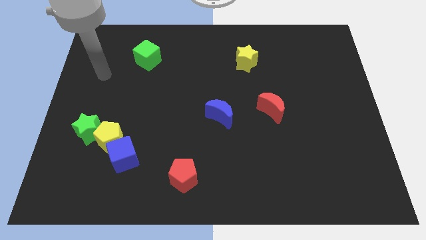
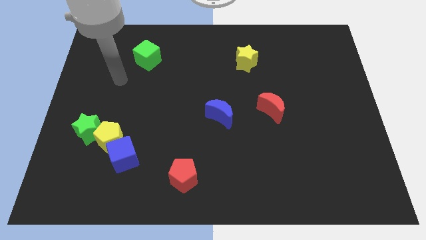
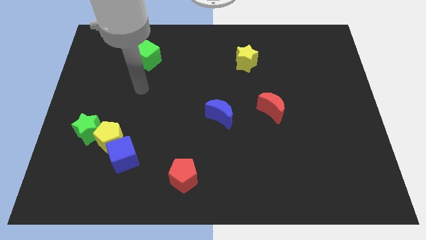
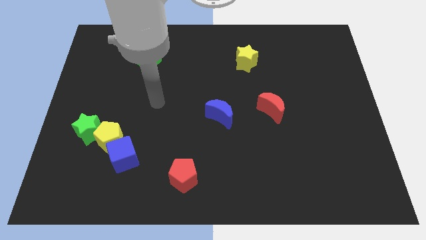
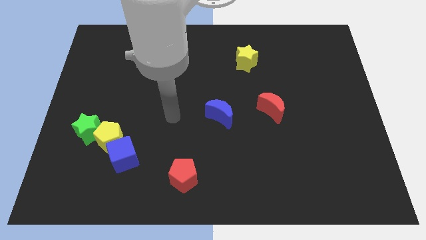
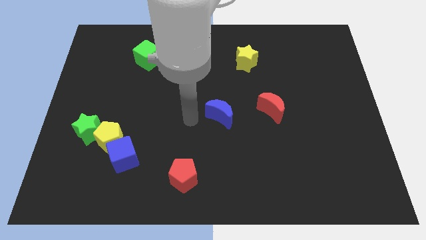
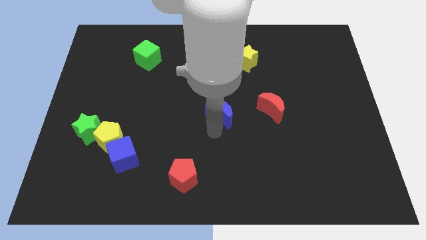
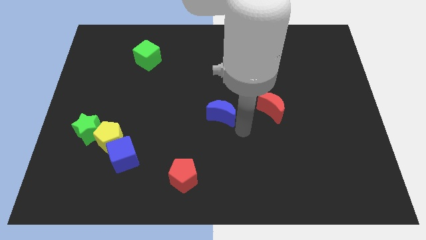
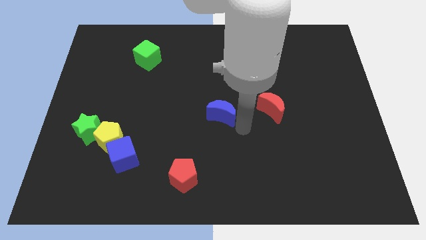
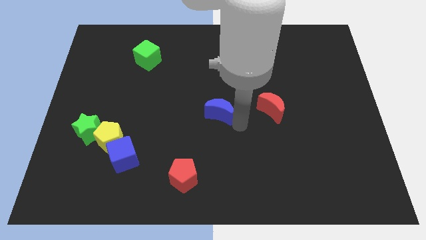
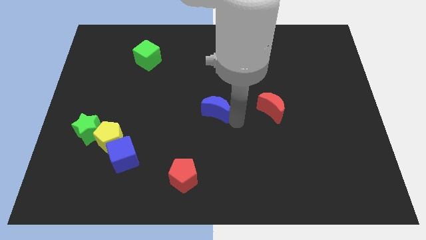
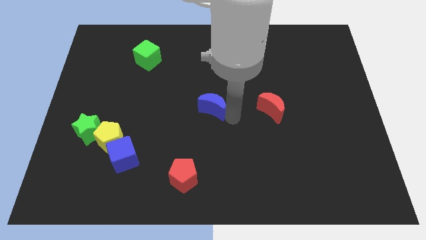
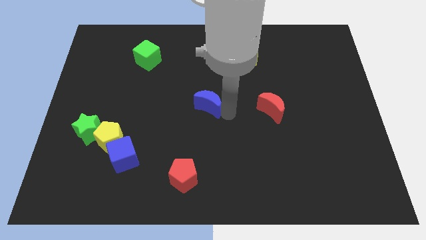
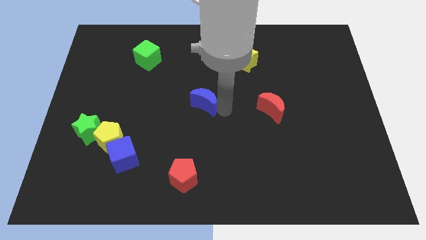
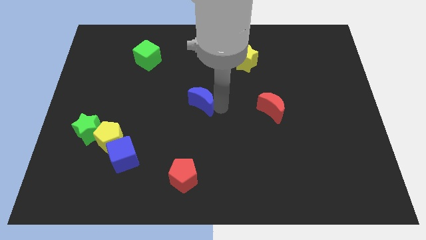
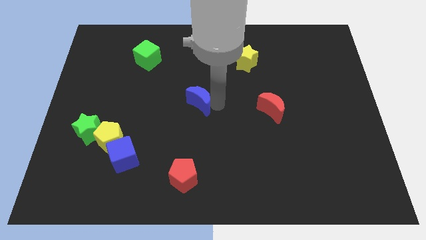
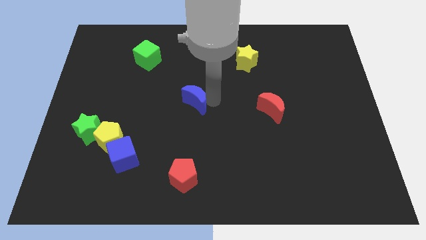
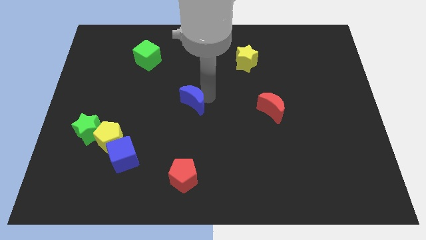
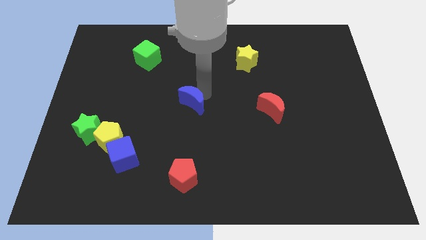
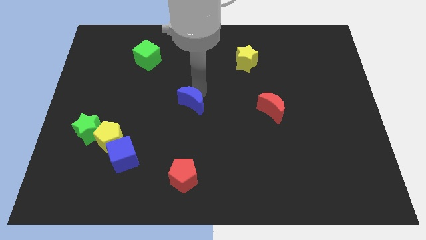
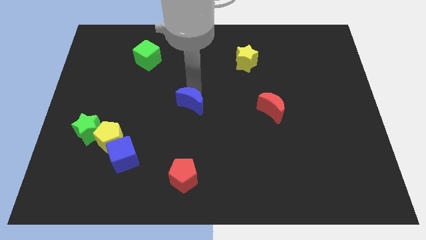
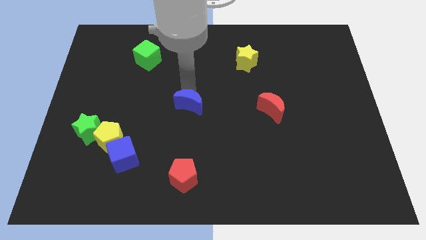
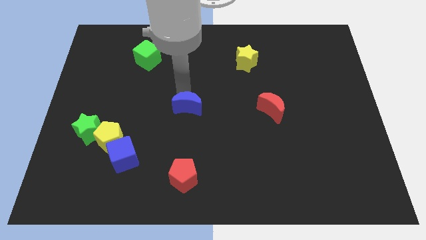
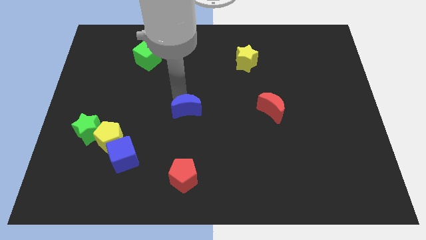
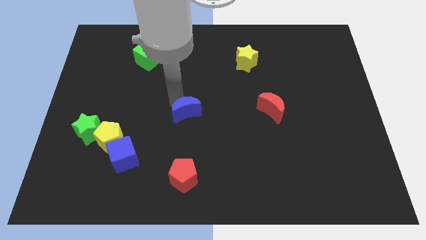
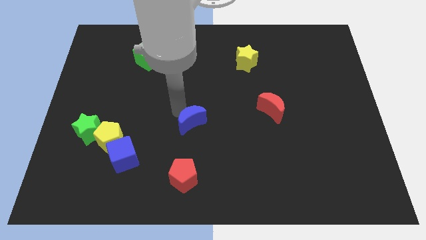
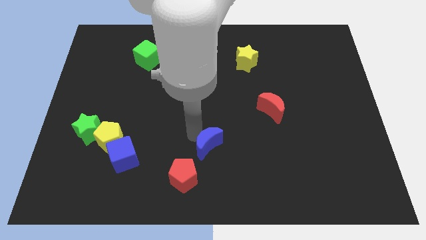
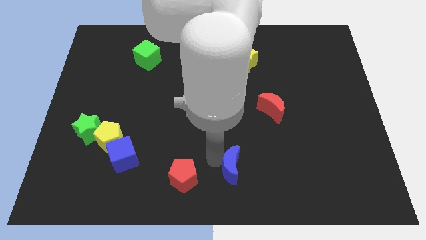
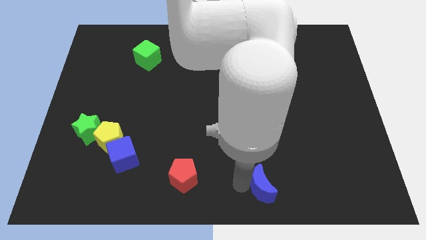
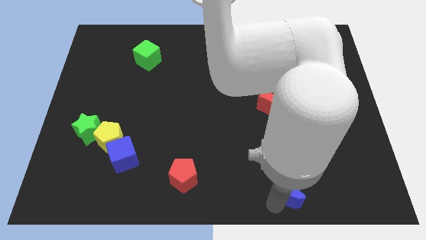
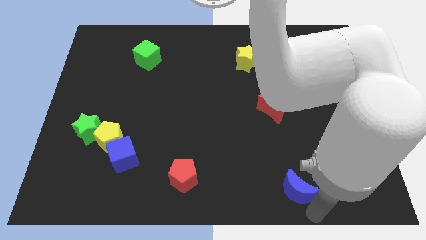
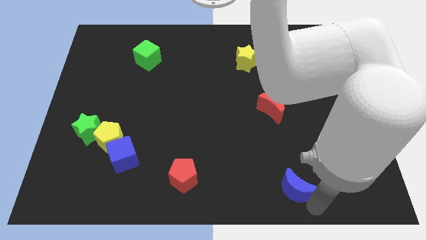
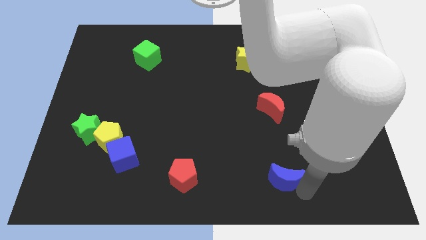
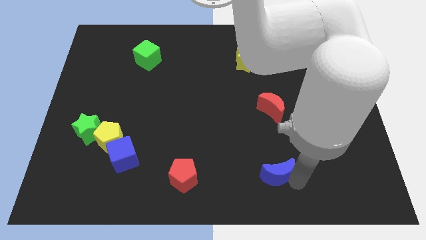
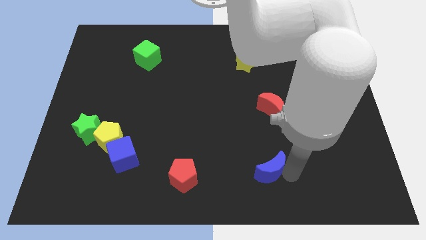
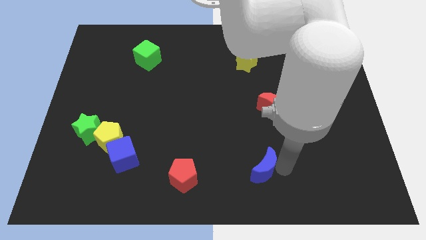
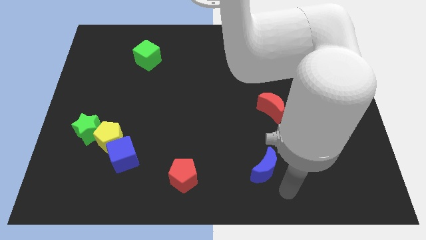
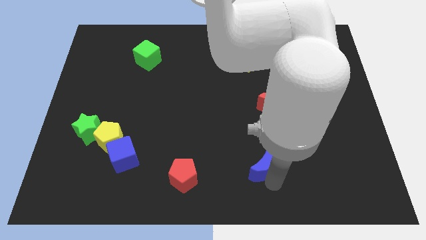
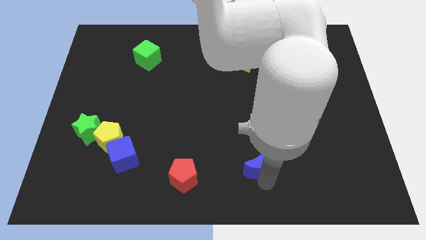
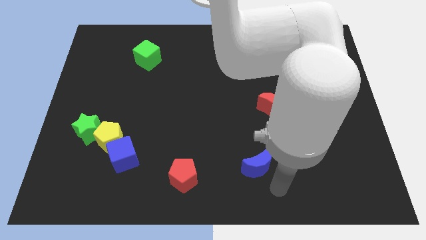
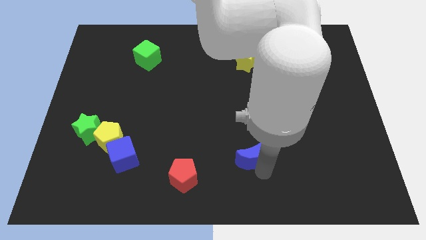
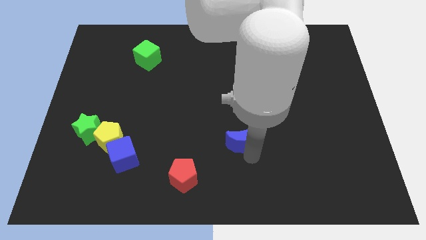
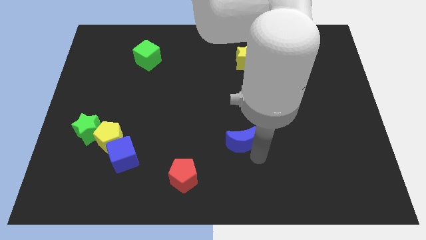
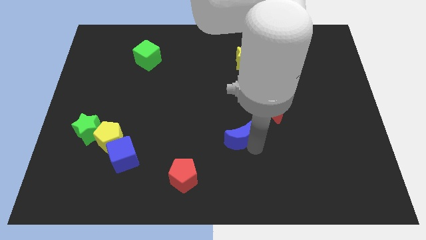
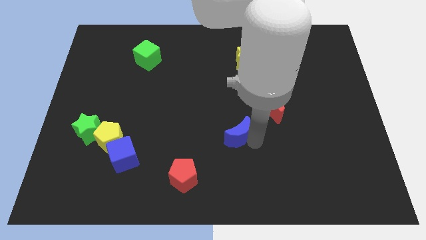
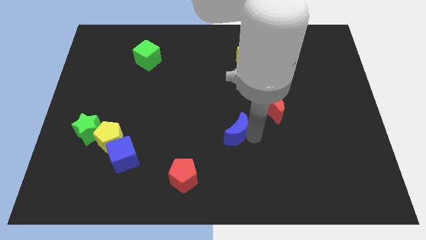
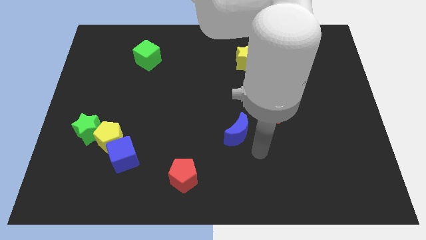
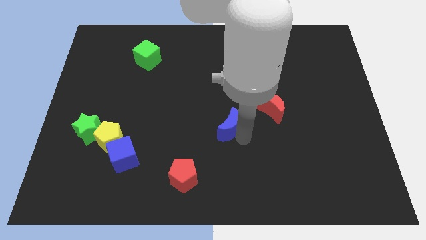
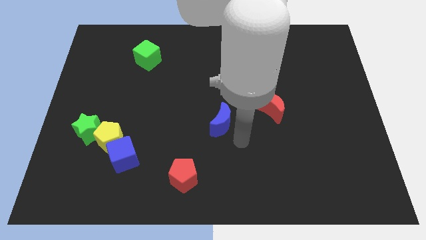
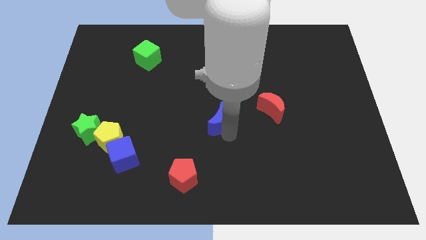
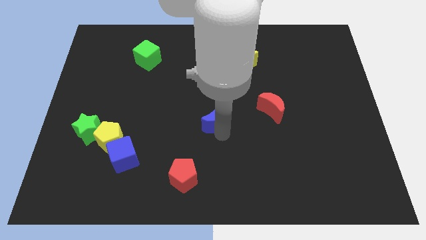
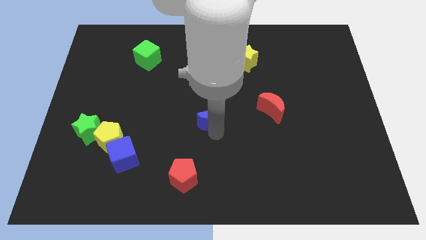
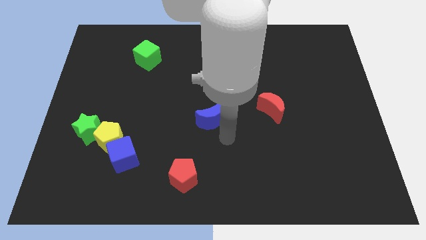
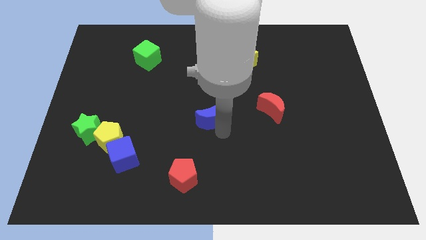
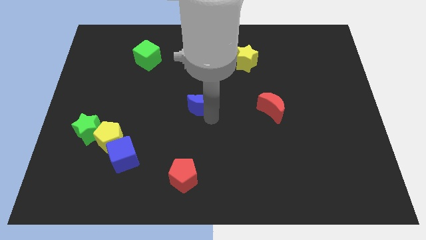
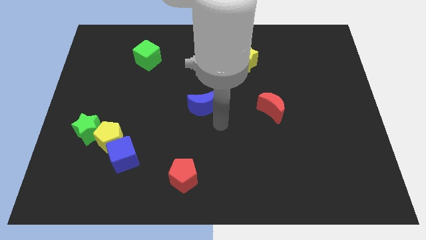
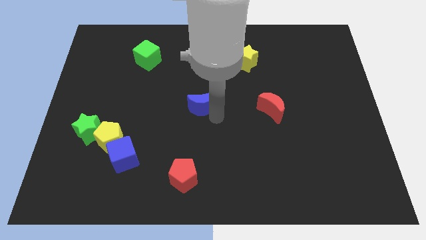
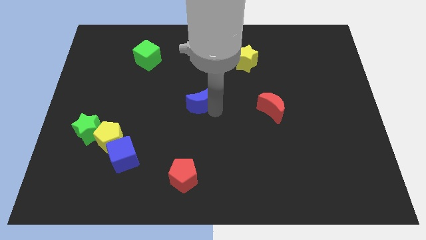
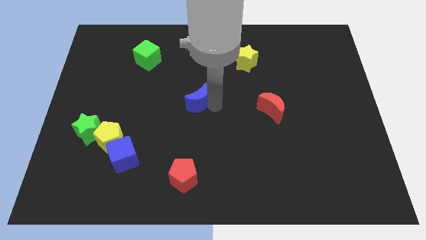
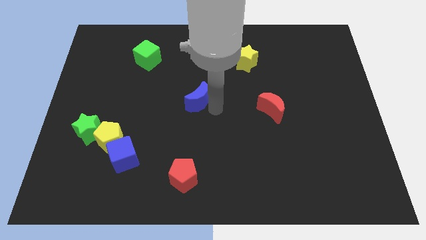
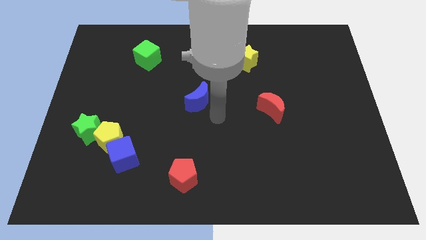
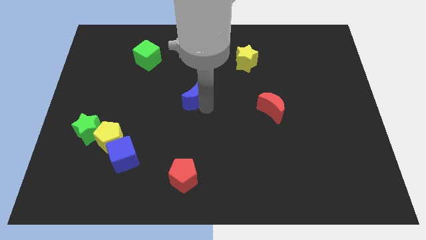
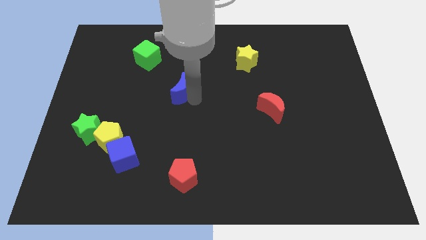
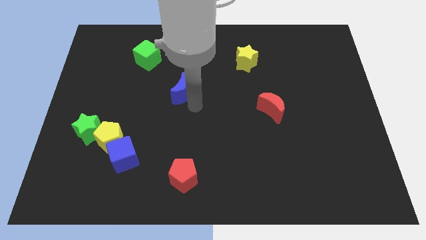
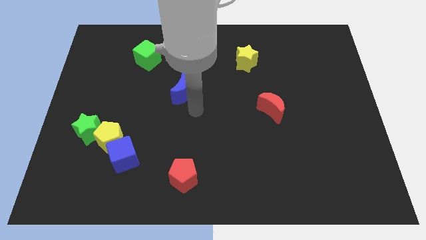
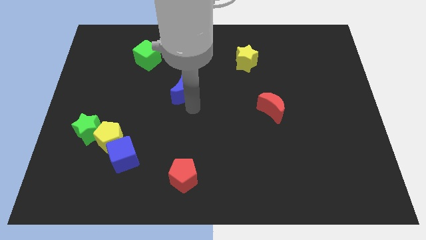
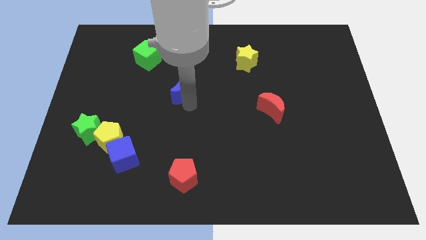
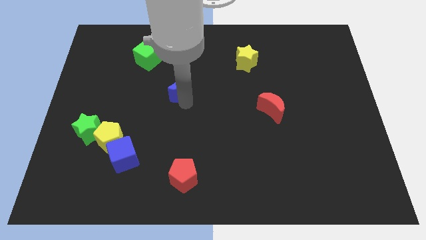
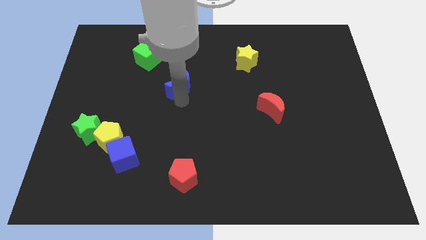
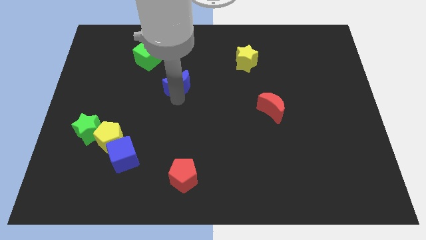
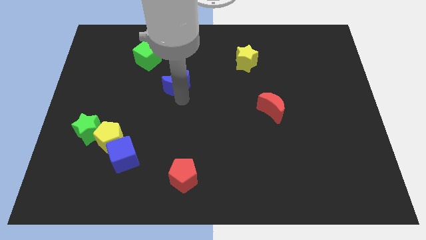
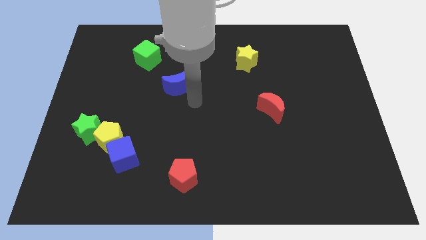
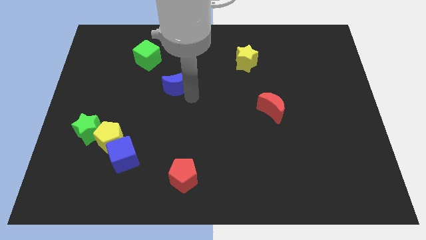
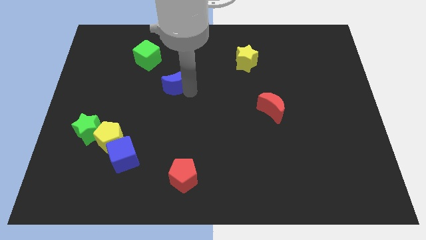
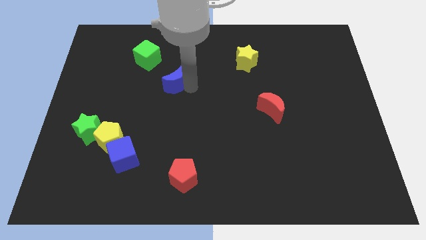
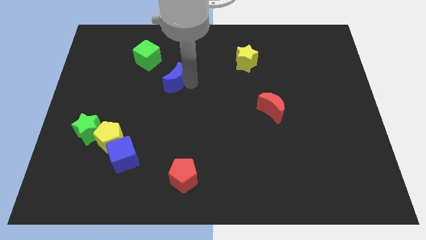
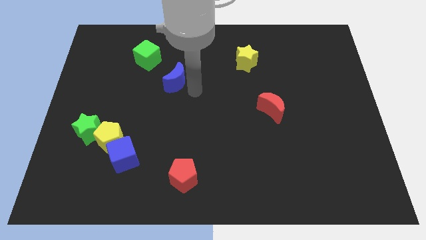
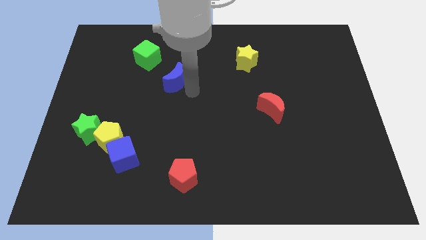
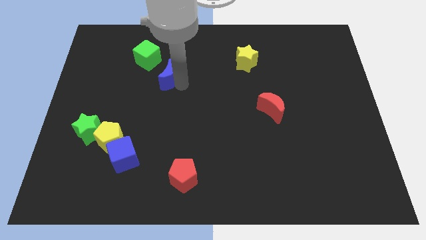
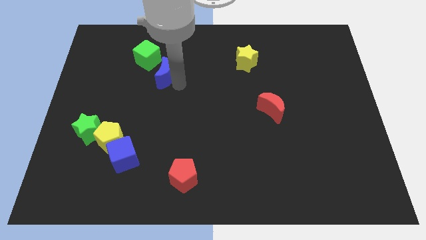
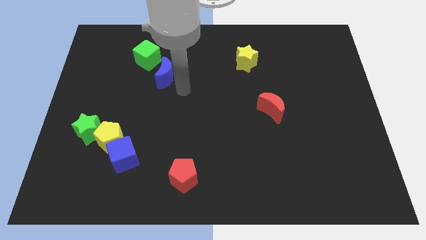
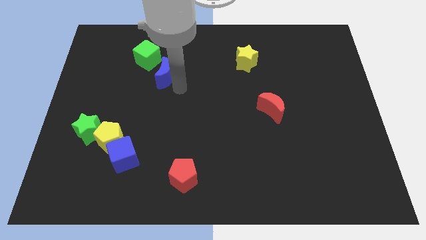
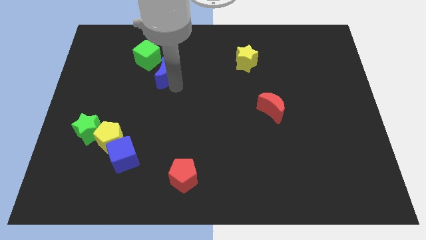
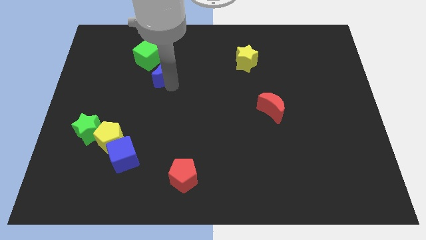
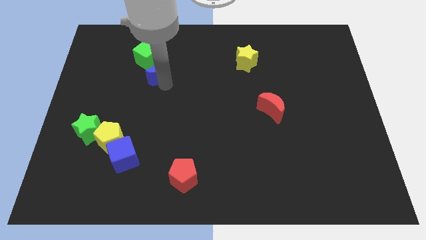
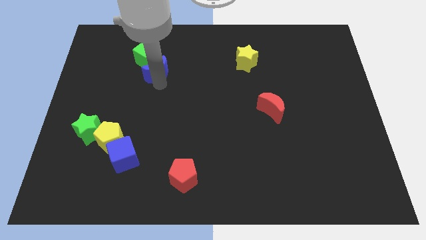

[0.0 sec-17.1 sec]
put the blue moon to the green cube
